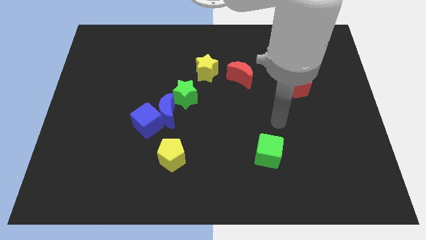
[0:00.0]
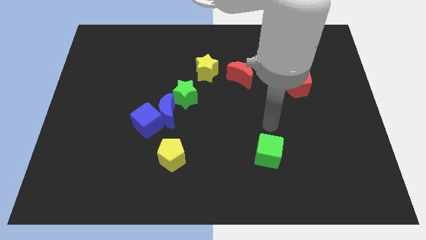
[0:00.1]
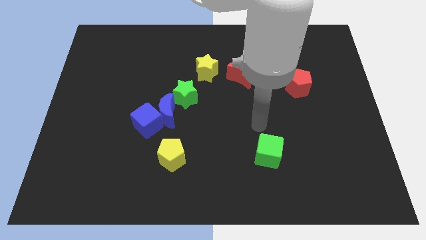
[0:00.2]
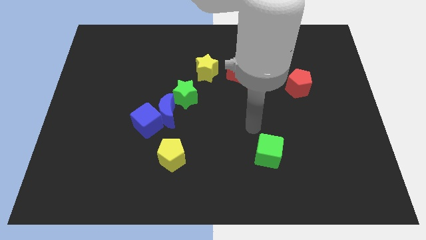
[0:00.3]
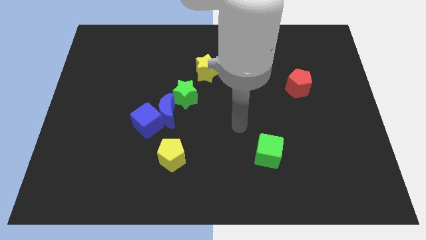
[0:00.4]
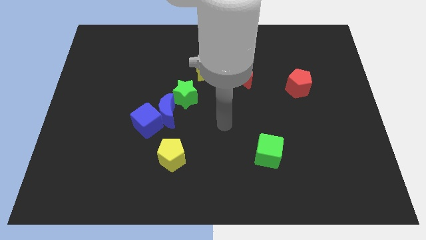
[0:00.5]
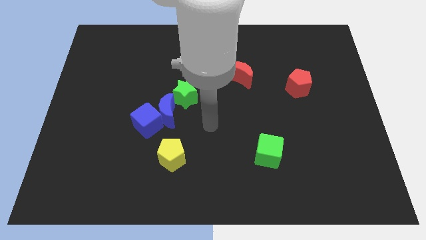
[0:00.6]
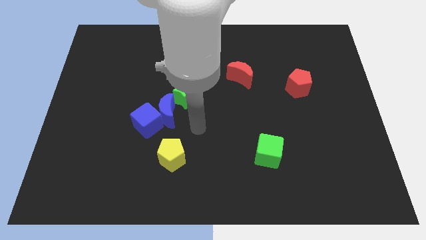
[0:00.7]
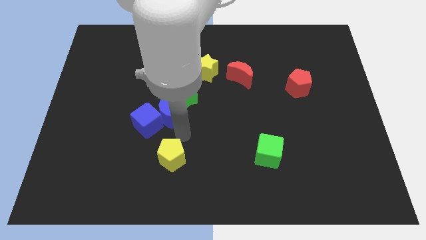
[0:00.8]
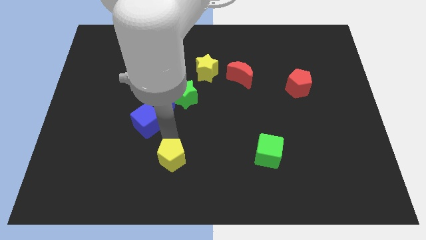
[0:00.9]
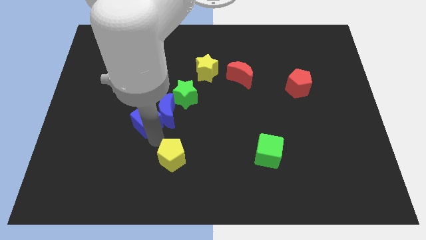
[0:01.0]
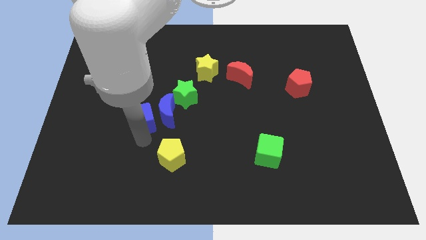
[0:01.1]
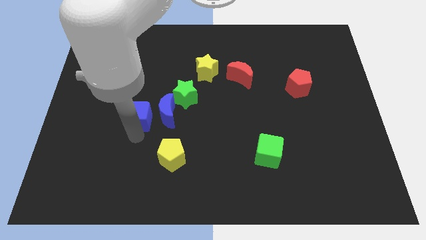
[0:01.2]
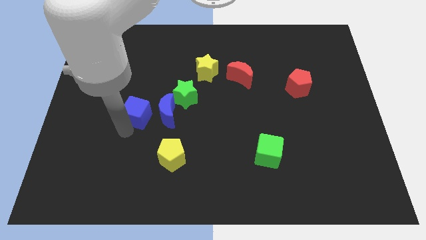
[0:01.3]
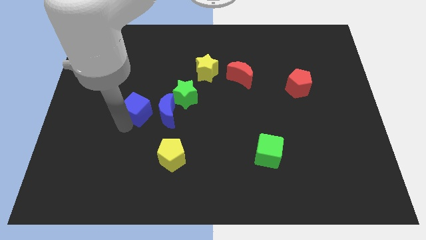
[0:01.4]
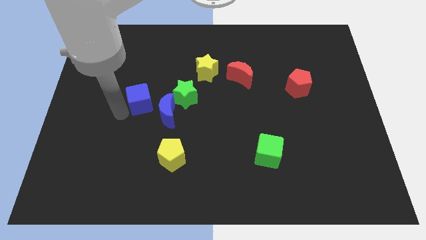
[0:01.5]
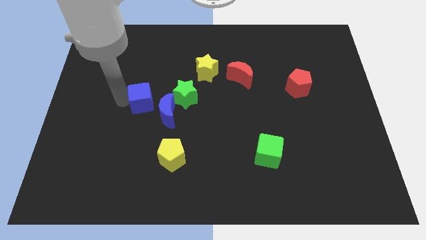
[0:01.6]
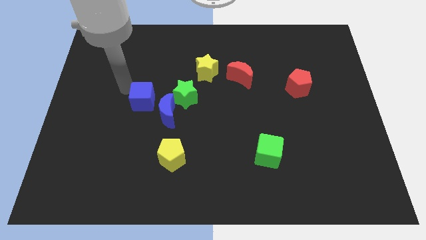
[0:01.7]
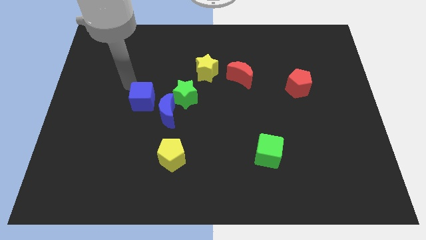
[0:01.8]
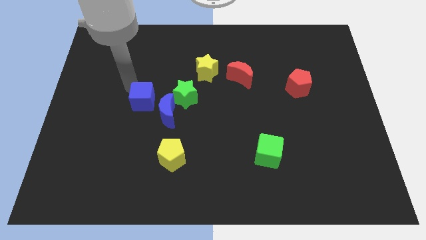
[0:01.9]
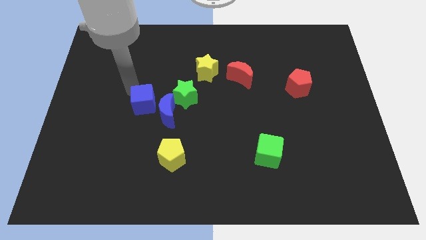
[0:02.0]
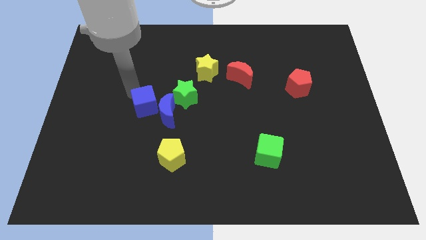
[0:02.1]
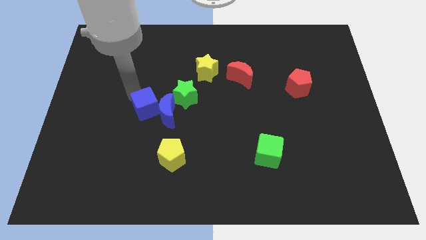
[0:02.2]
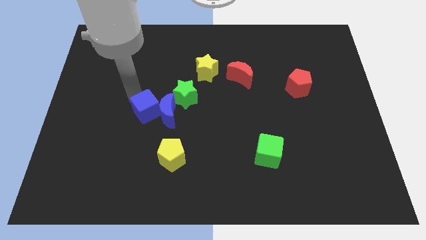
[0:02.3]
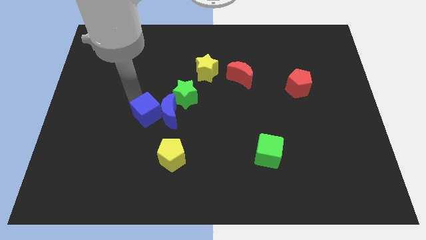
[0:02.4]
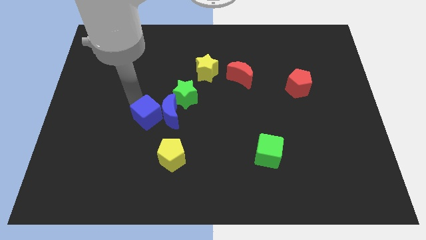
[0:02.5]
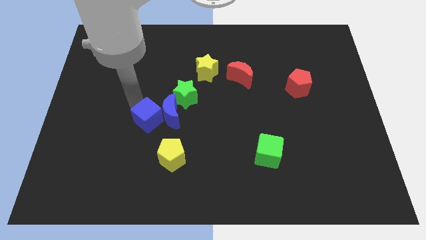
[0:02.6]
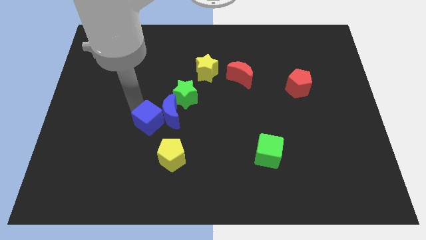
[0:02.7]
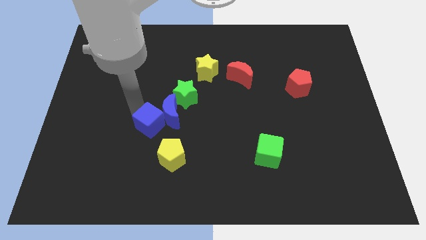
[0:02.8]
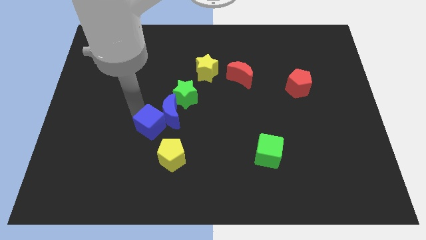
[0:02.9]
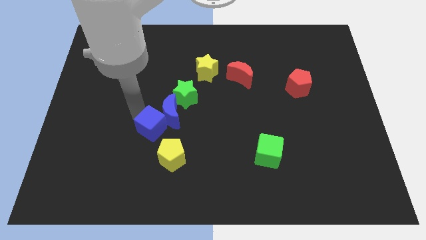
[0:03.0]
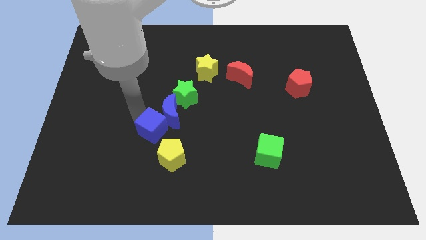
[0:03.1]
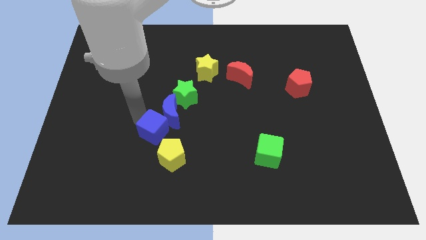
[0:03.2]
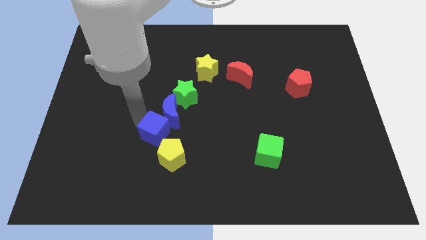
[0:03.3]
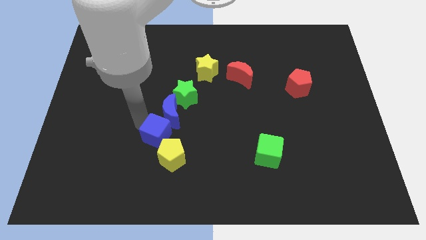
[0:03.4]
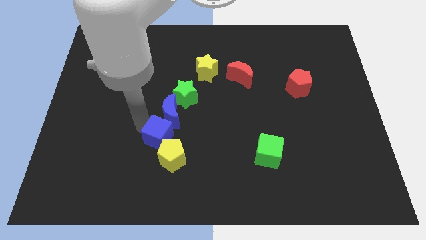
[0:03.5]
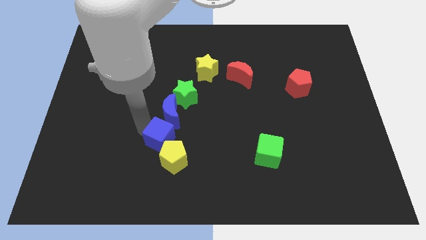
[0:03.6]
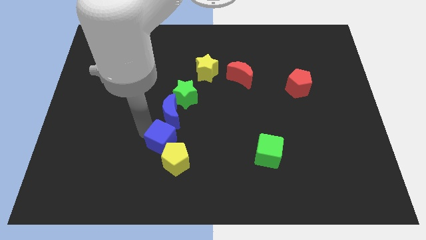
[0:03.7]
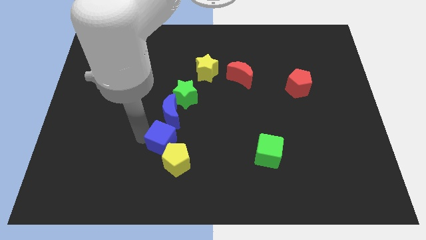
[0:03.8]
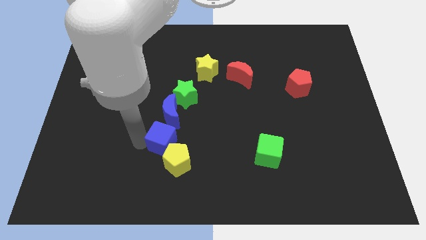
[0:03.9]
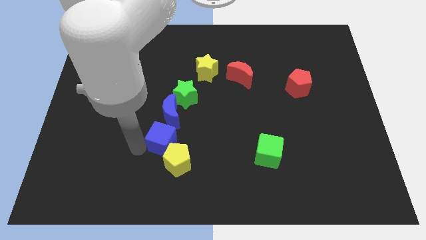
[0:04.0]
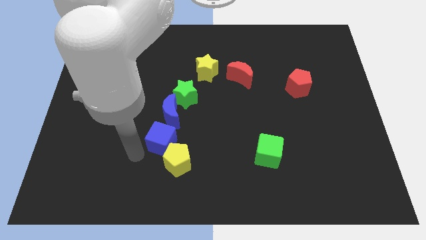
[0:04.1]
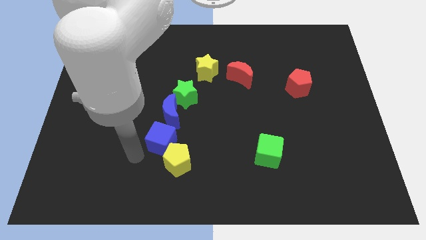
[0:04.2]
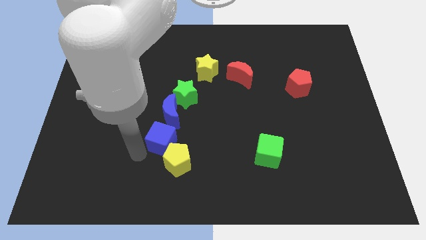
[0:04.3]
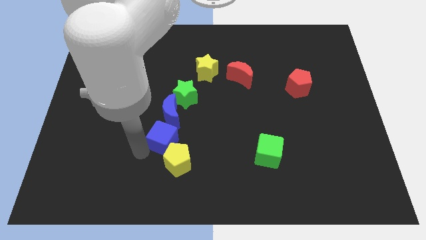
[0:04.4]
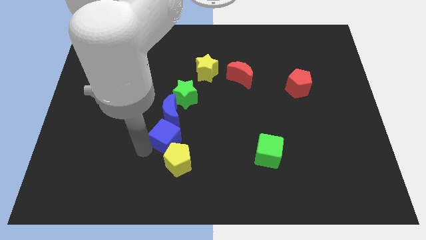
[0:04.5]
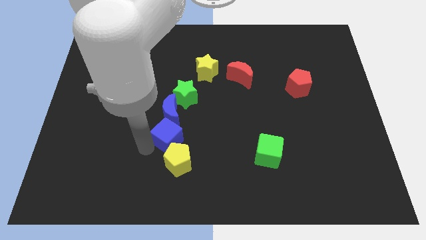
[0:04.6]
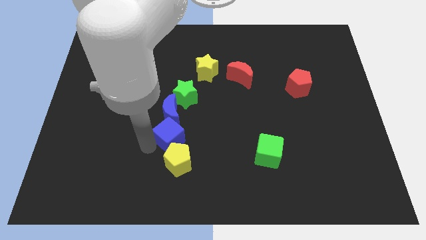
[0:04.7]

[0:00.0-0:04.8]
slightly slide the blue cube diagonally down and right

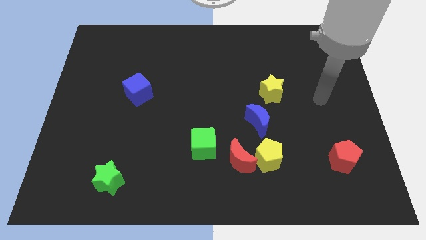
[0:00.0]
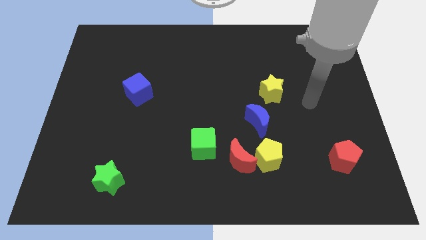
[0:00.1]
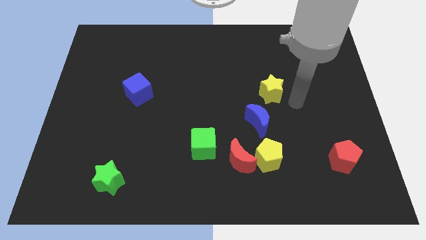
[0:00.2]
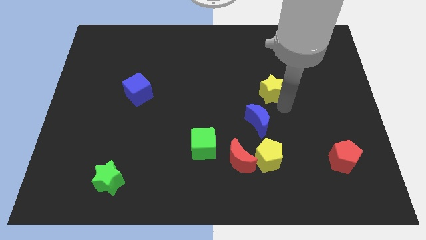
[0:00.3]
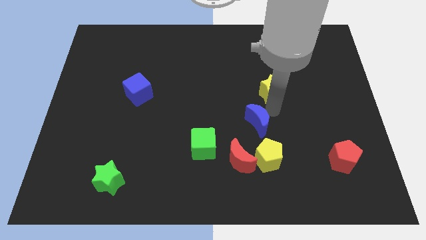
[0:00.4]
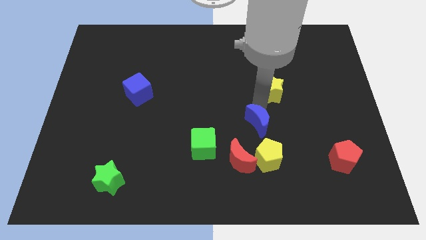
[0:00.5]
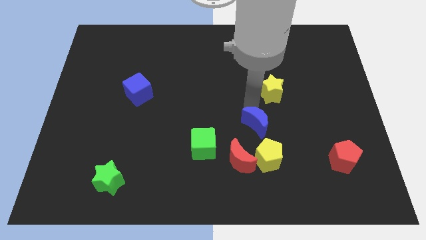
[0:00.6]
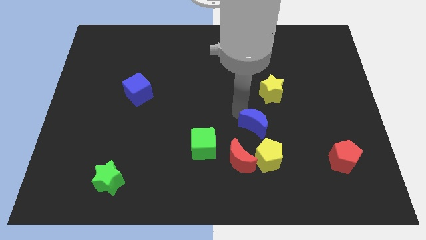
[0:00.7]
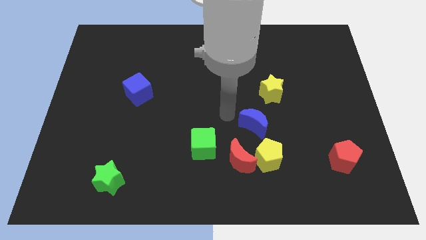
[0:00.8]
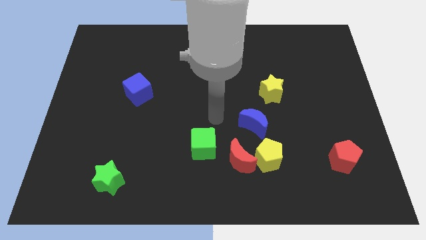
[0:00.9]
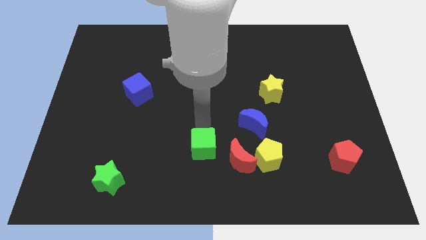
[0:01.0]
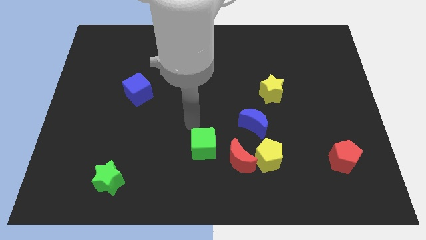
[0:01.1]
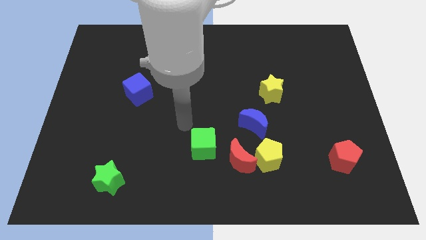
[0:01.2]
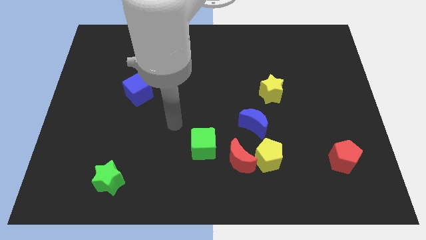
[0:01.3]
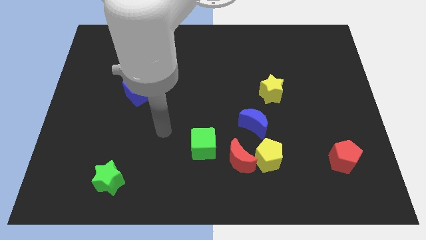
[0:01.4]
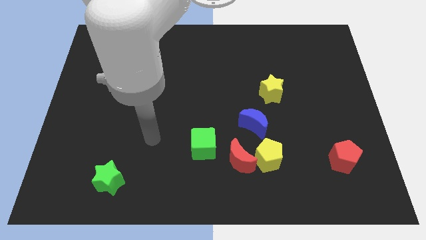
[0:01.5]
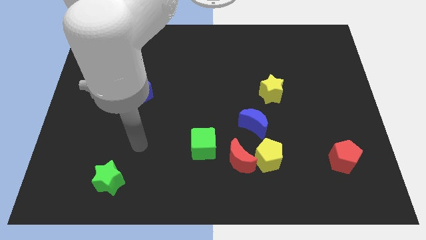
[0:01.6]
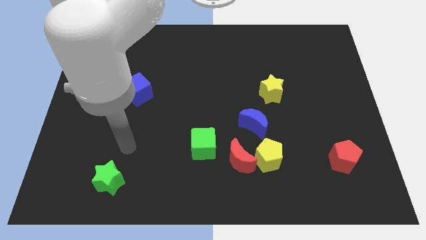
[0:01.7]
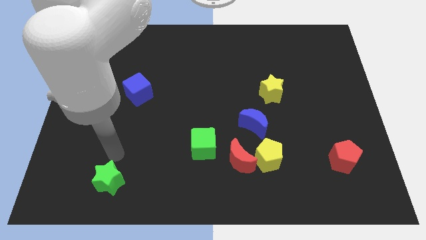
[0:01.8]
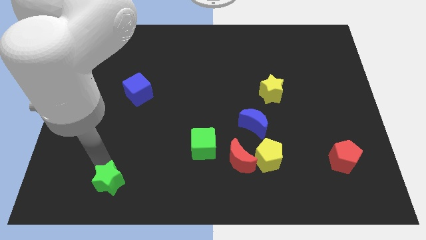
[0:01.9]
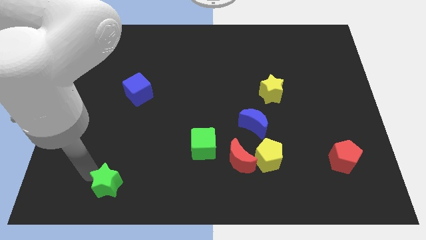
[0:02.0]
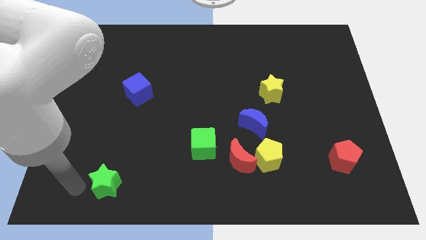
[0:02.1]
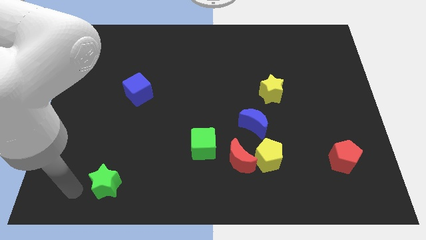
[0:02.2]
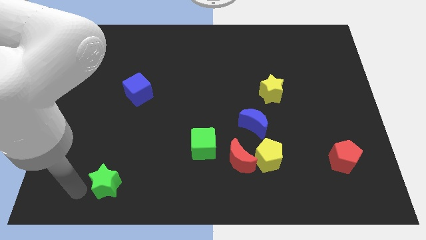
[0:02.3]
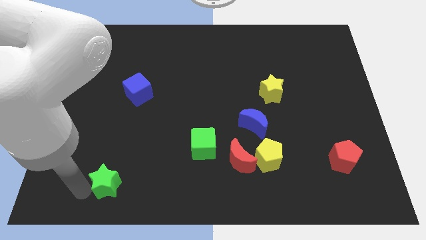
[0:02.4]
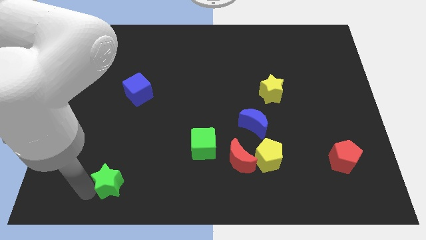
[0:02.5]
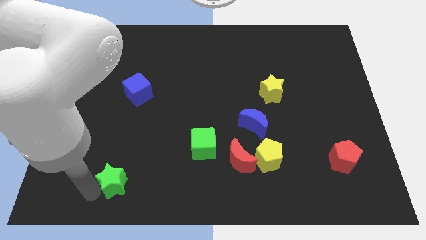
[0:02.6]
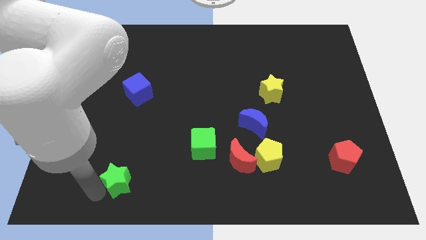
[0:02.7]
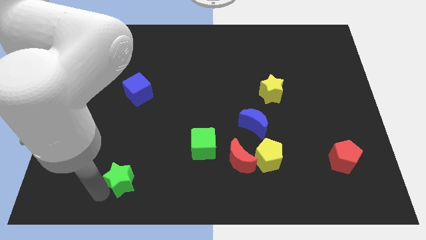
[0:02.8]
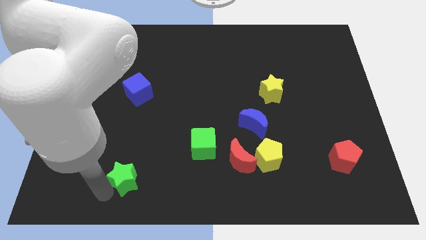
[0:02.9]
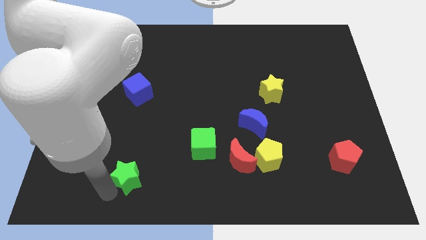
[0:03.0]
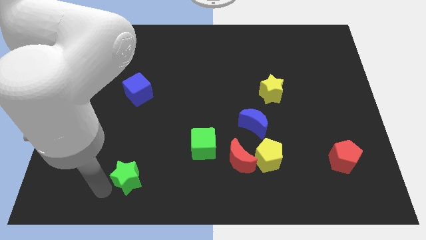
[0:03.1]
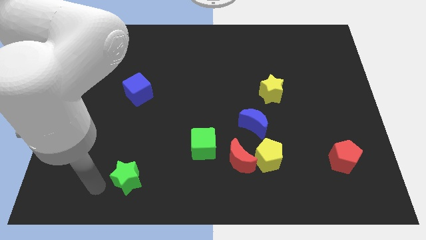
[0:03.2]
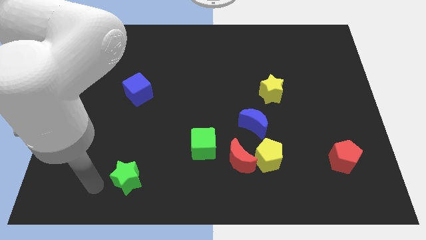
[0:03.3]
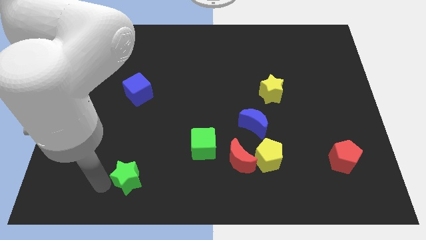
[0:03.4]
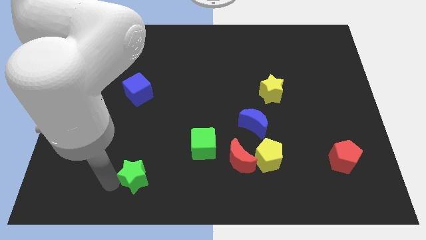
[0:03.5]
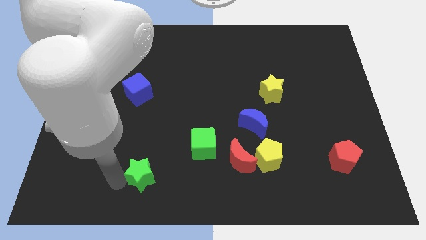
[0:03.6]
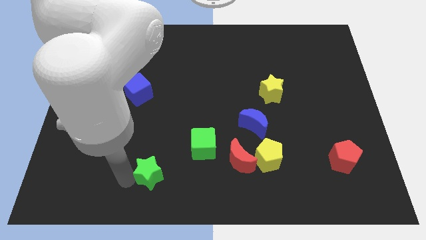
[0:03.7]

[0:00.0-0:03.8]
move the green star to the right a little
